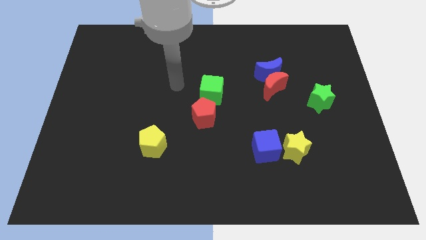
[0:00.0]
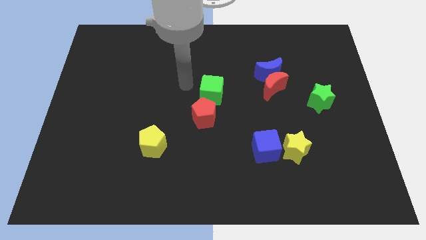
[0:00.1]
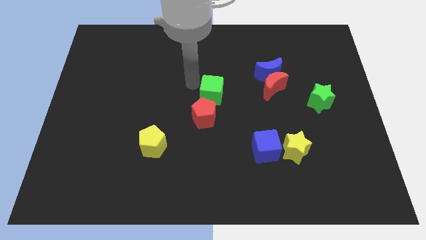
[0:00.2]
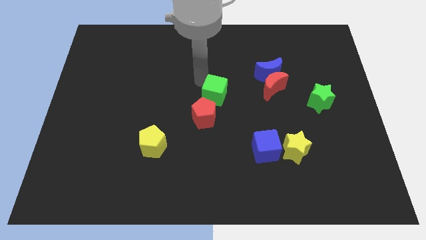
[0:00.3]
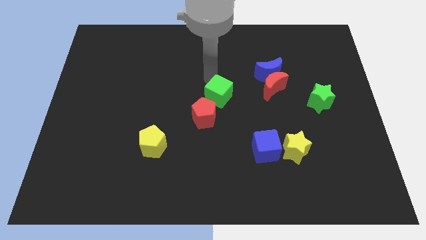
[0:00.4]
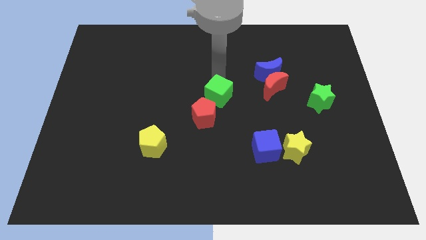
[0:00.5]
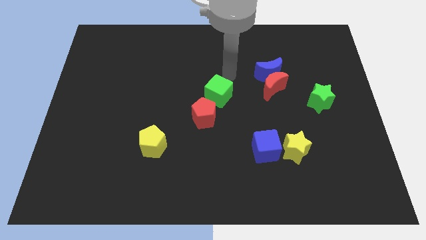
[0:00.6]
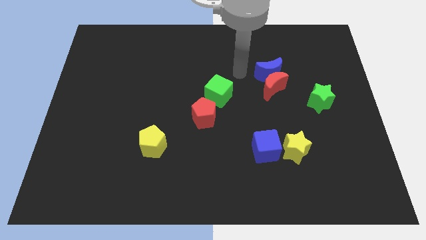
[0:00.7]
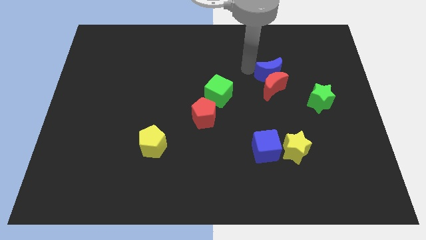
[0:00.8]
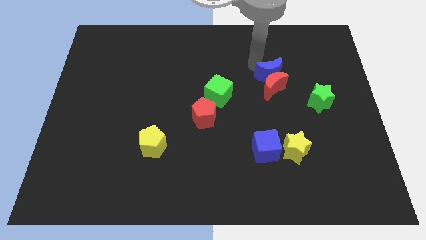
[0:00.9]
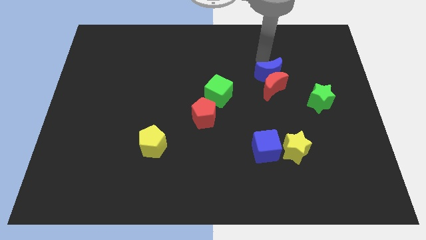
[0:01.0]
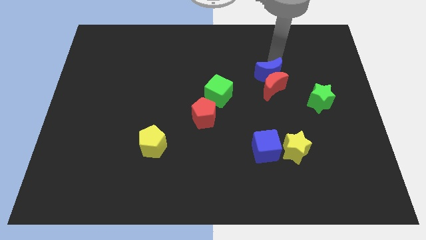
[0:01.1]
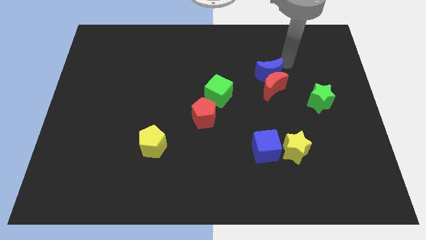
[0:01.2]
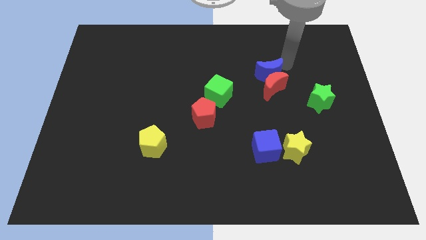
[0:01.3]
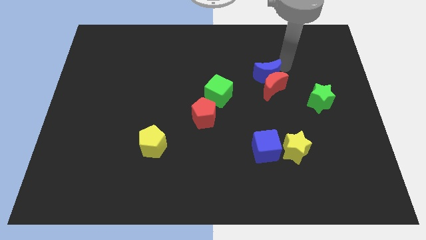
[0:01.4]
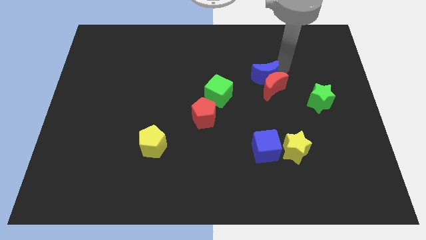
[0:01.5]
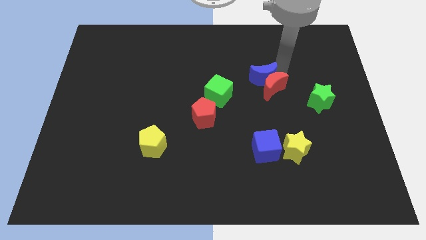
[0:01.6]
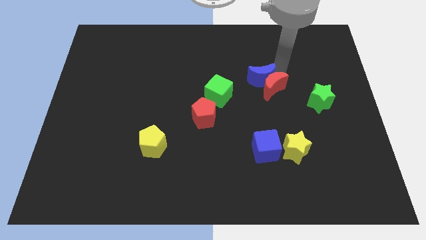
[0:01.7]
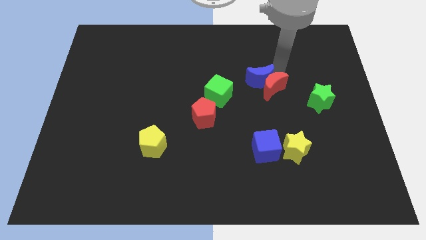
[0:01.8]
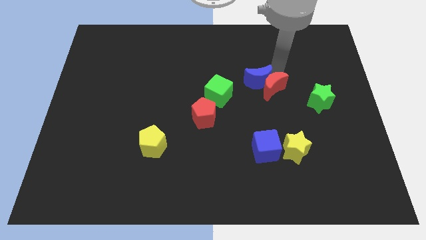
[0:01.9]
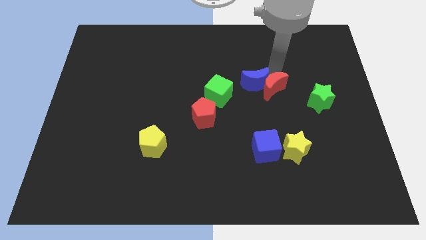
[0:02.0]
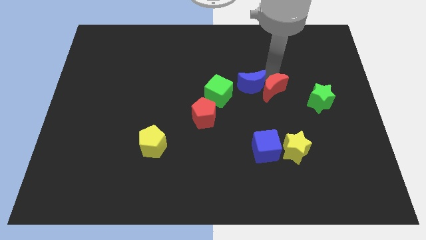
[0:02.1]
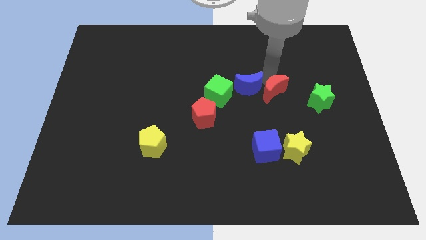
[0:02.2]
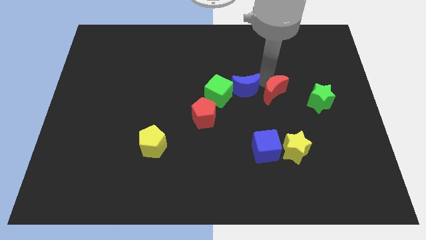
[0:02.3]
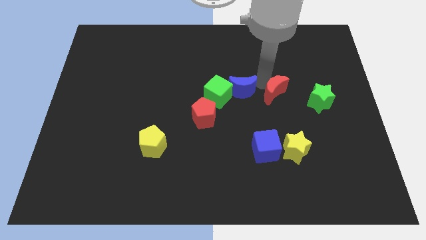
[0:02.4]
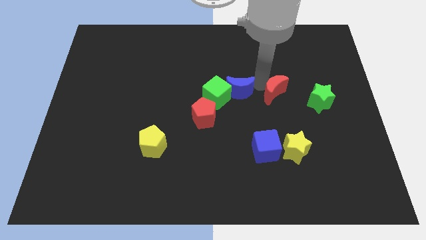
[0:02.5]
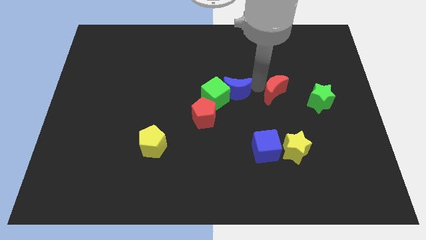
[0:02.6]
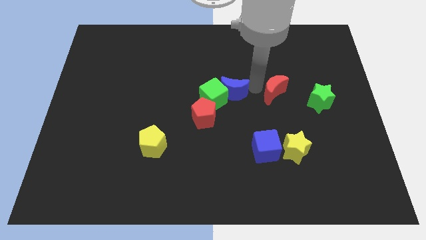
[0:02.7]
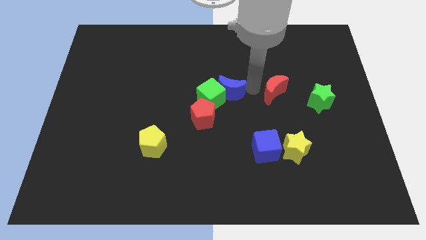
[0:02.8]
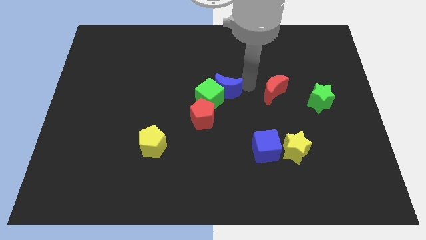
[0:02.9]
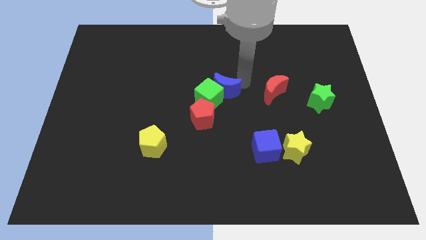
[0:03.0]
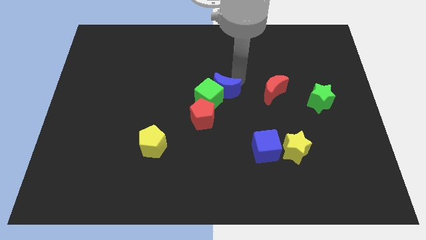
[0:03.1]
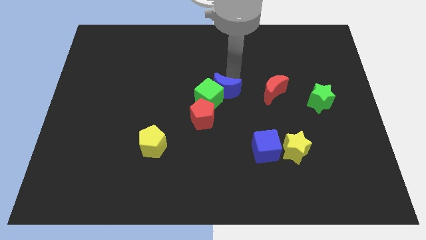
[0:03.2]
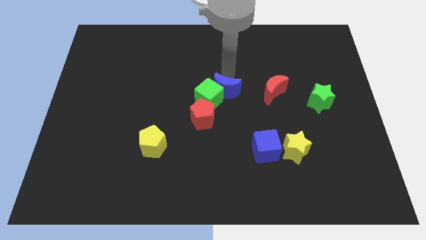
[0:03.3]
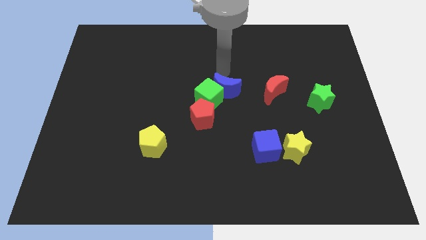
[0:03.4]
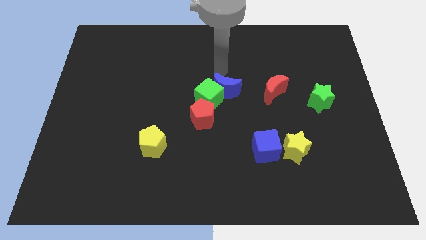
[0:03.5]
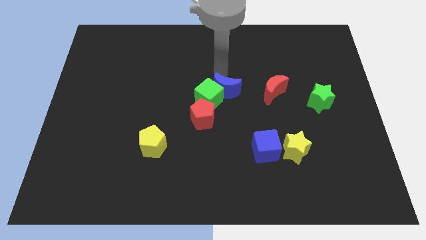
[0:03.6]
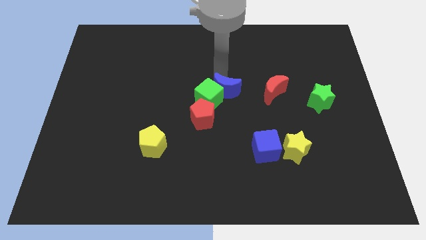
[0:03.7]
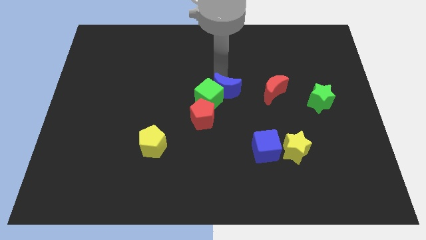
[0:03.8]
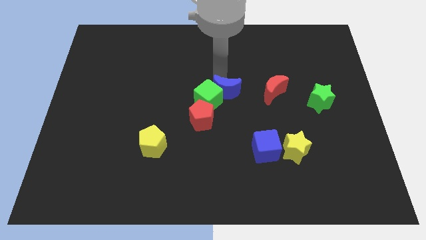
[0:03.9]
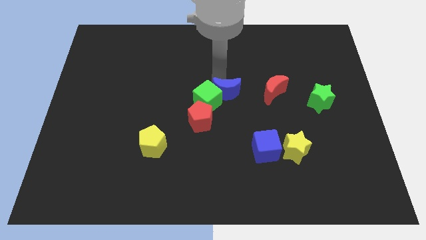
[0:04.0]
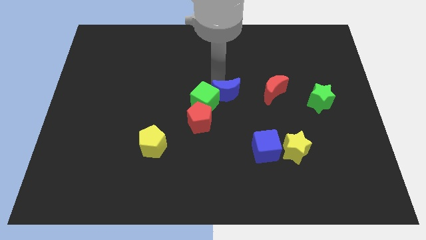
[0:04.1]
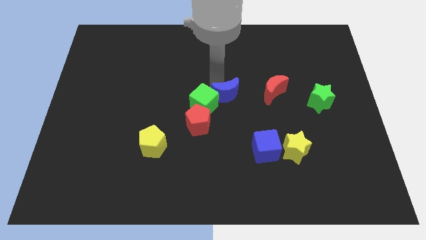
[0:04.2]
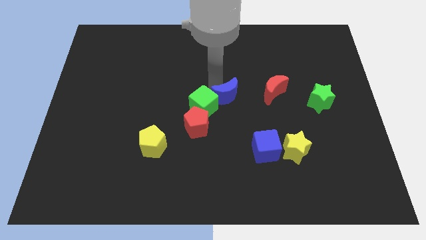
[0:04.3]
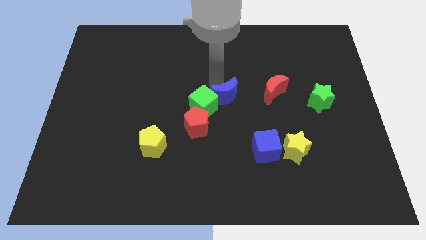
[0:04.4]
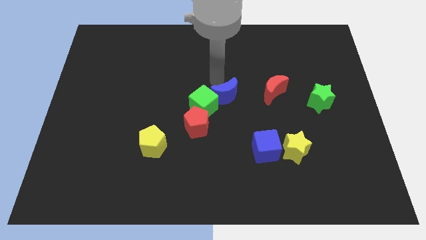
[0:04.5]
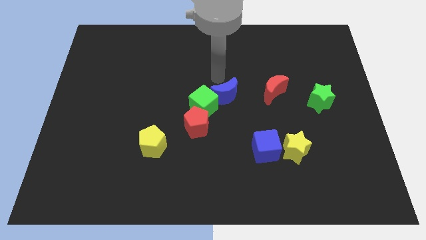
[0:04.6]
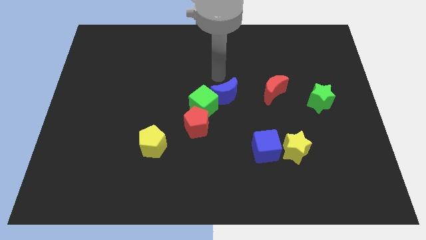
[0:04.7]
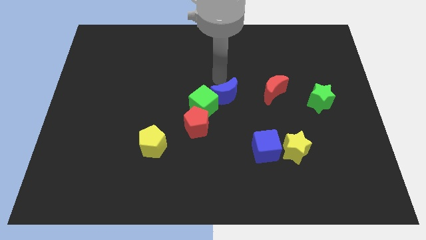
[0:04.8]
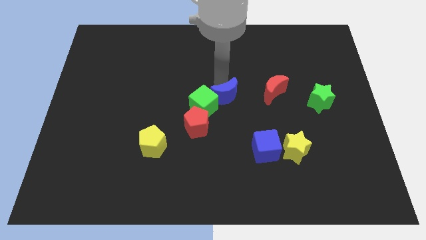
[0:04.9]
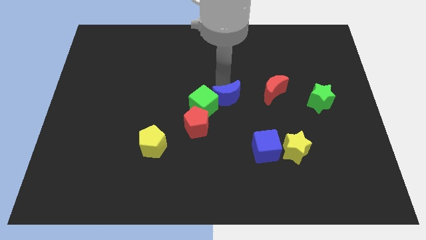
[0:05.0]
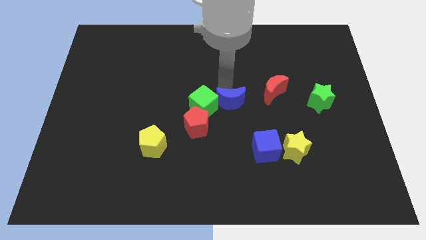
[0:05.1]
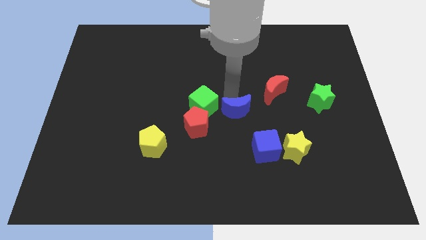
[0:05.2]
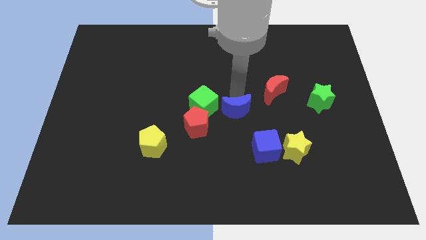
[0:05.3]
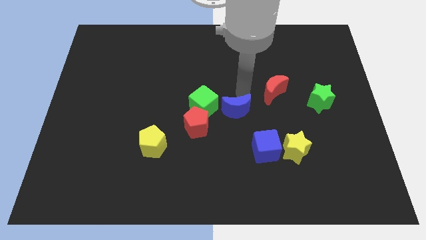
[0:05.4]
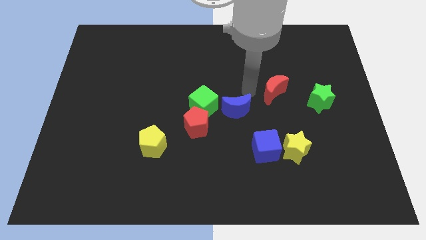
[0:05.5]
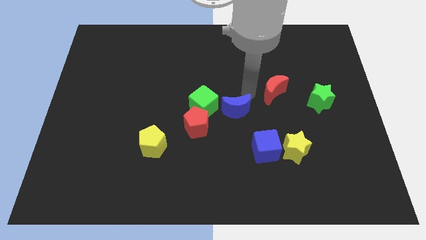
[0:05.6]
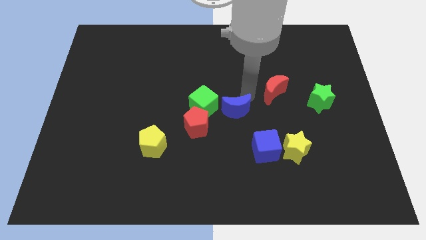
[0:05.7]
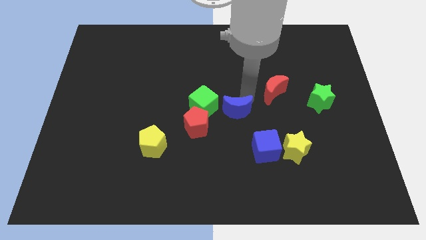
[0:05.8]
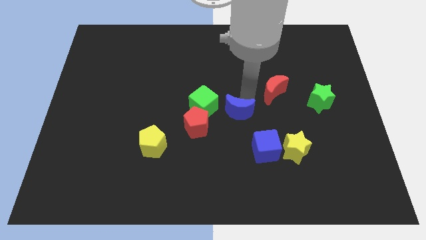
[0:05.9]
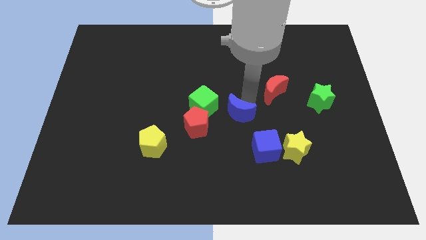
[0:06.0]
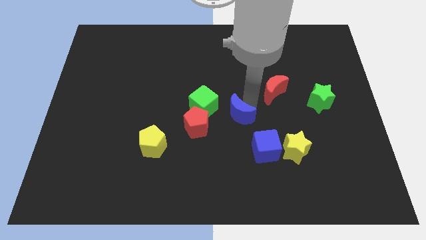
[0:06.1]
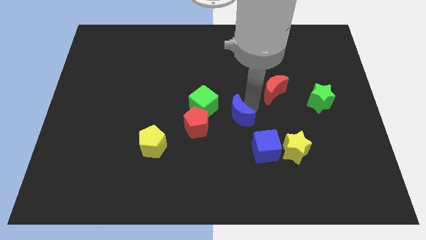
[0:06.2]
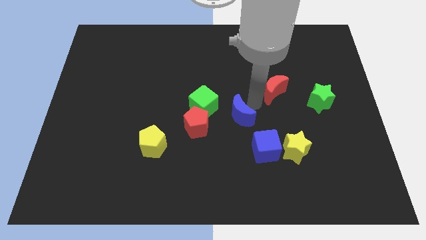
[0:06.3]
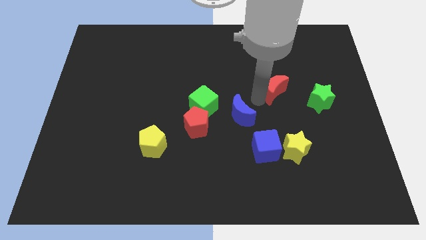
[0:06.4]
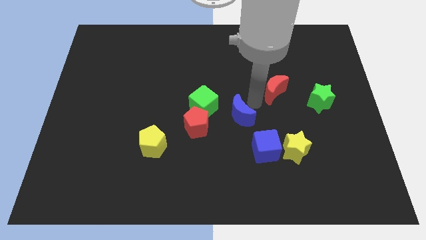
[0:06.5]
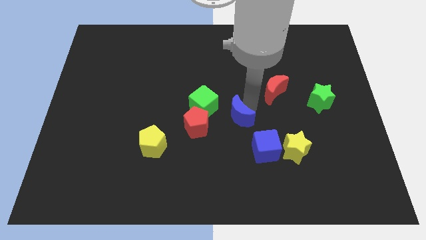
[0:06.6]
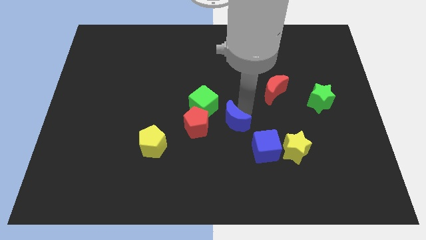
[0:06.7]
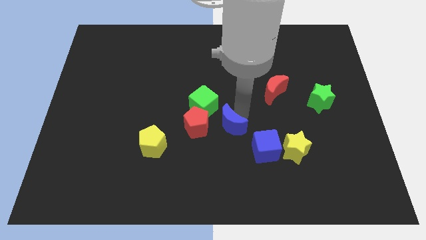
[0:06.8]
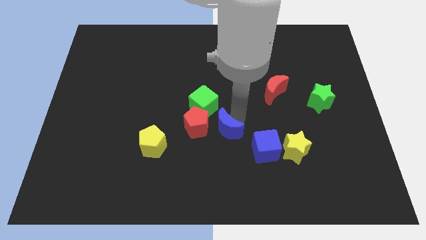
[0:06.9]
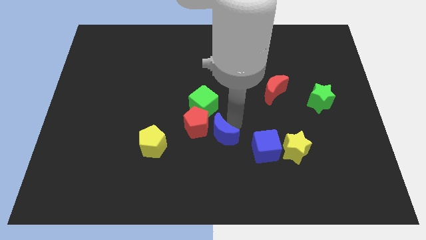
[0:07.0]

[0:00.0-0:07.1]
move the blue moon diagonally down and left

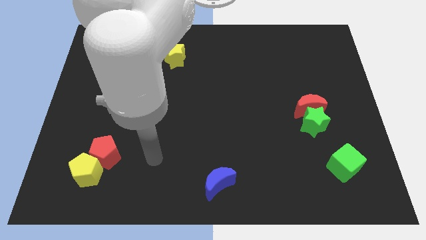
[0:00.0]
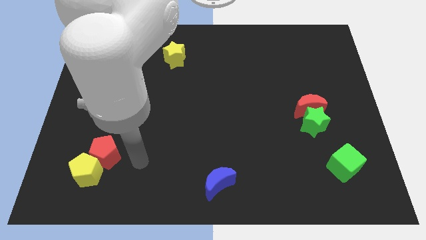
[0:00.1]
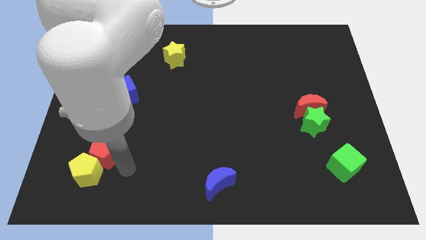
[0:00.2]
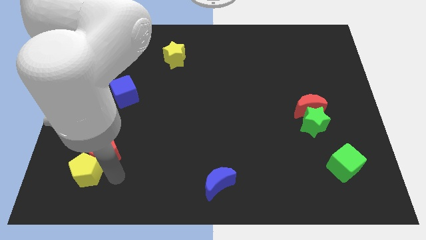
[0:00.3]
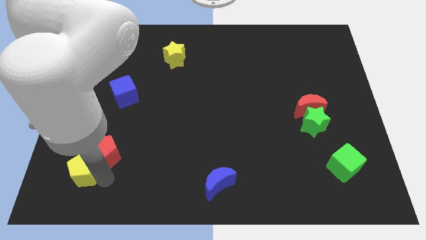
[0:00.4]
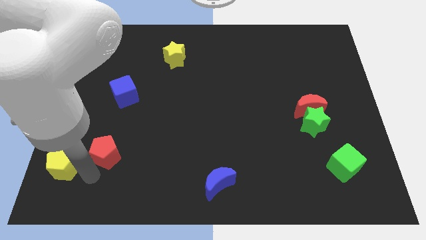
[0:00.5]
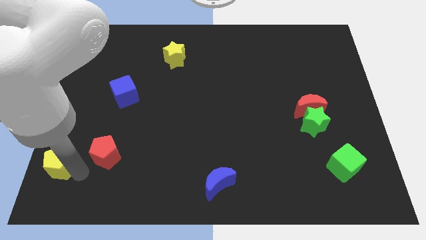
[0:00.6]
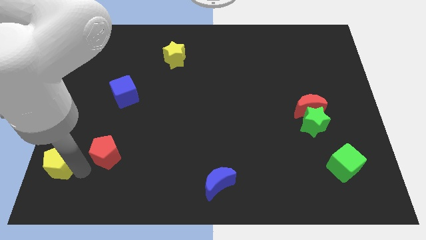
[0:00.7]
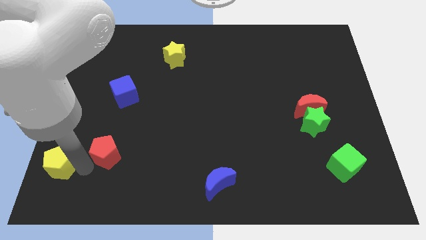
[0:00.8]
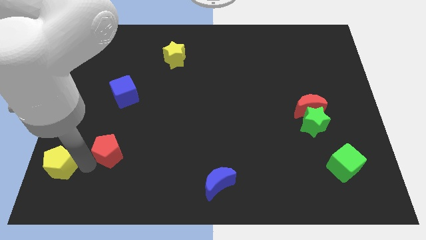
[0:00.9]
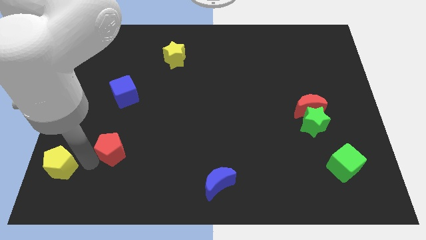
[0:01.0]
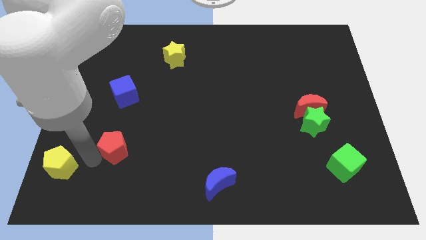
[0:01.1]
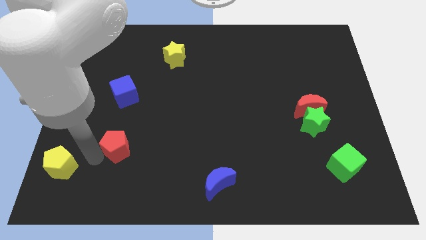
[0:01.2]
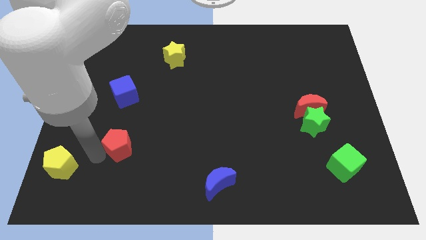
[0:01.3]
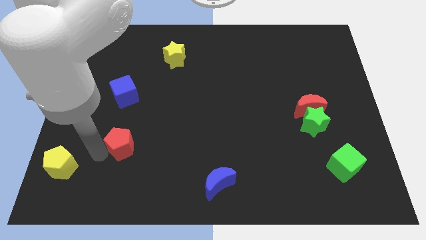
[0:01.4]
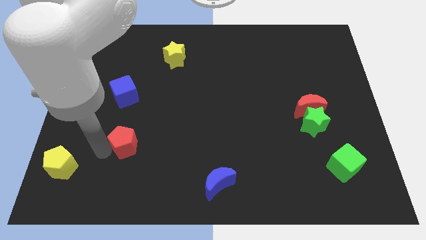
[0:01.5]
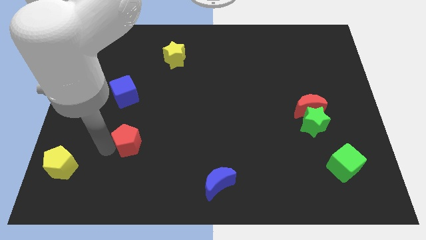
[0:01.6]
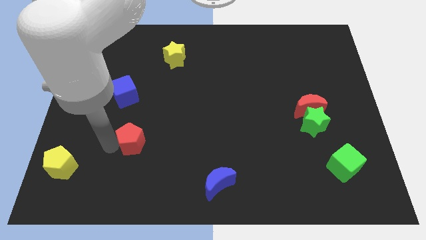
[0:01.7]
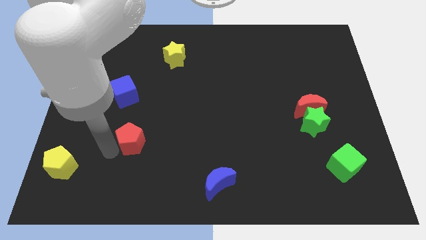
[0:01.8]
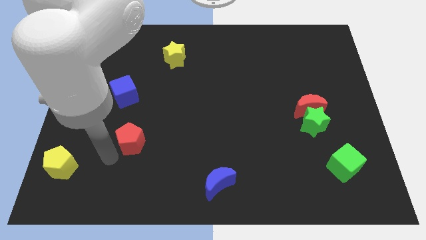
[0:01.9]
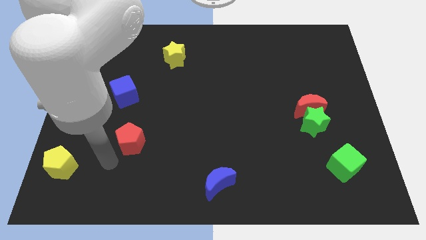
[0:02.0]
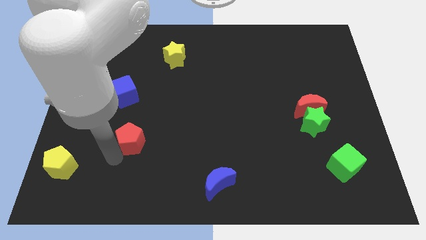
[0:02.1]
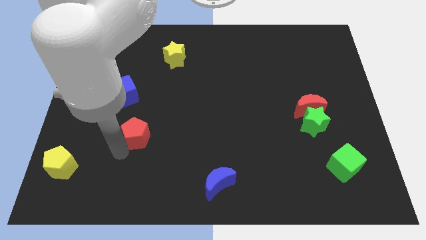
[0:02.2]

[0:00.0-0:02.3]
push the red pentagon a bit upwards and to the right
